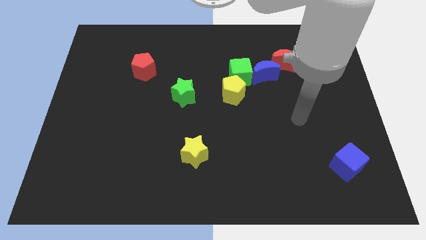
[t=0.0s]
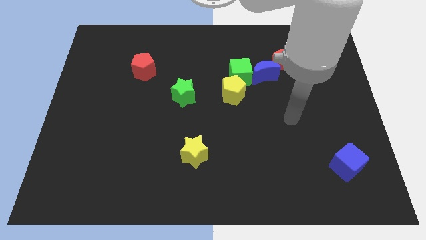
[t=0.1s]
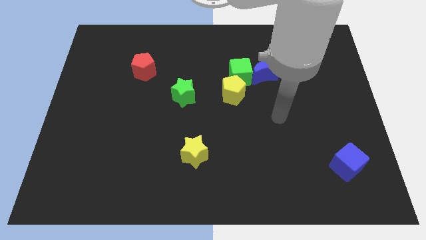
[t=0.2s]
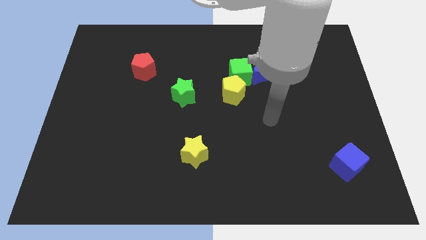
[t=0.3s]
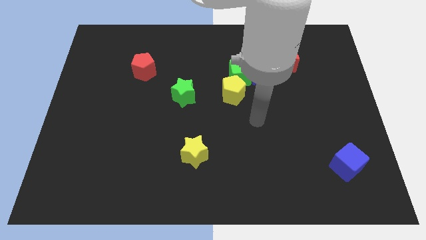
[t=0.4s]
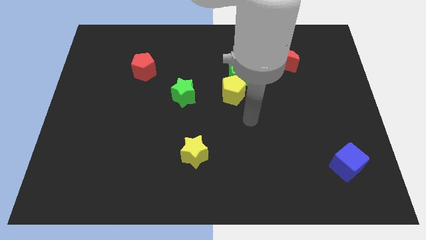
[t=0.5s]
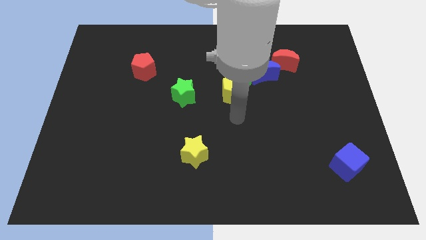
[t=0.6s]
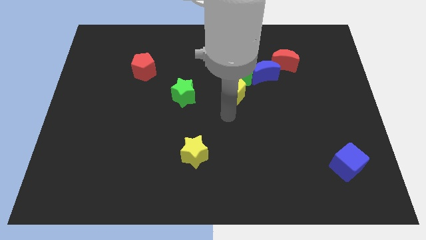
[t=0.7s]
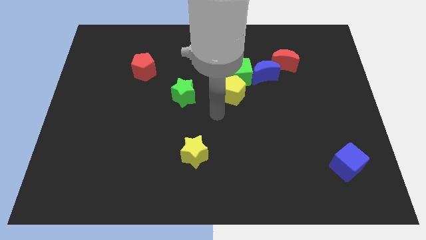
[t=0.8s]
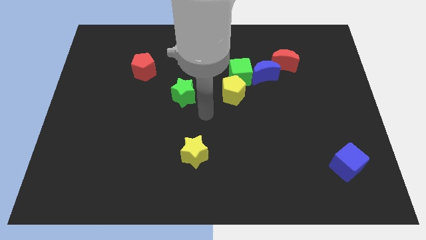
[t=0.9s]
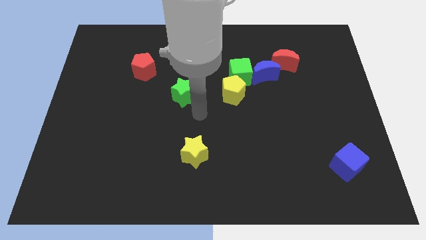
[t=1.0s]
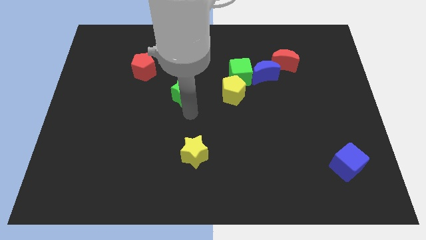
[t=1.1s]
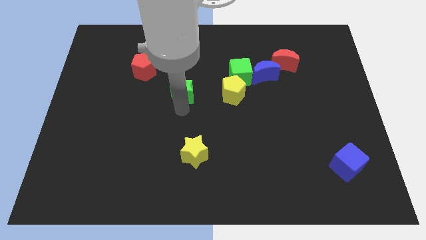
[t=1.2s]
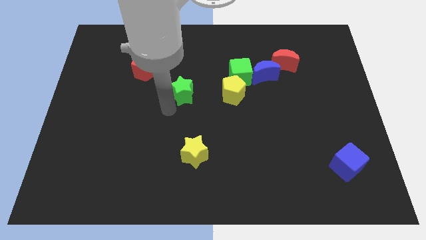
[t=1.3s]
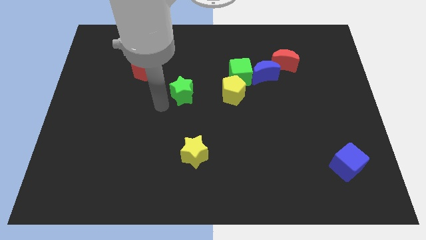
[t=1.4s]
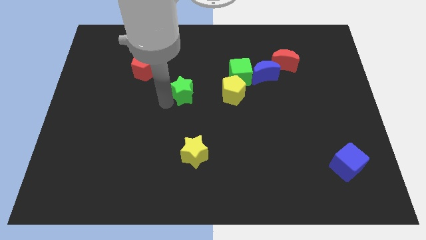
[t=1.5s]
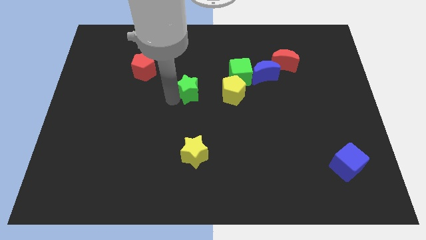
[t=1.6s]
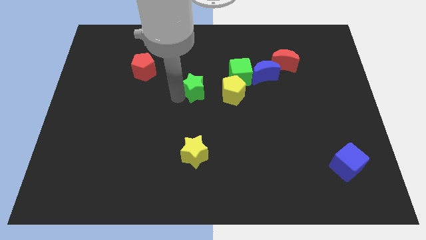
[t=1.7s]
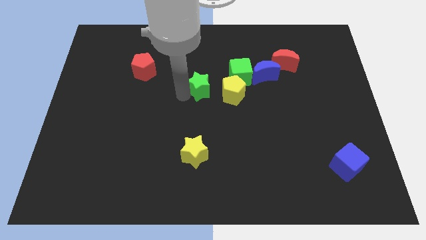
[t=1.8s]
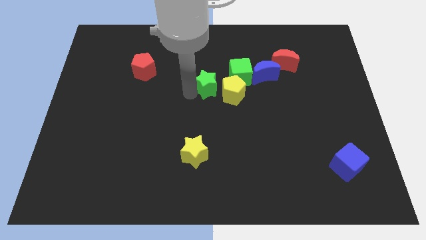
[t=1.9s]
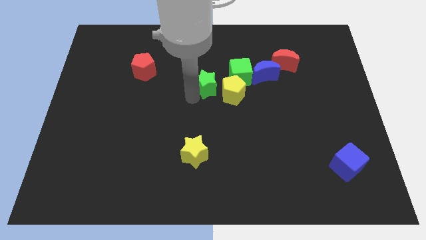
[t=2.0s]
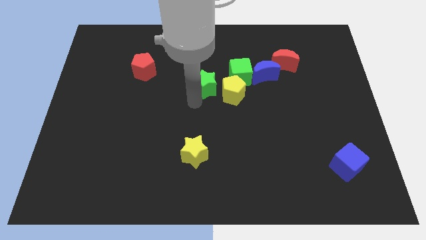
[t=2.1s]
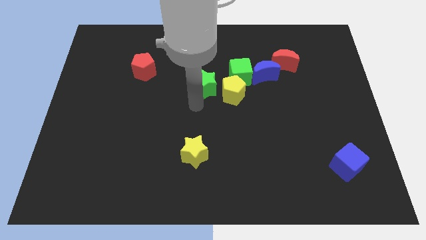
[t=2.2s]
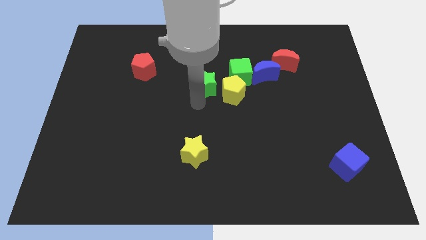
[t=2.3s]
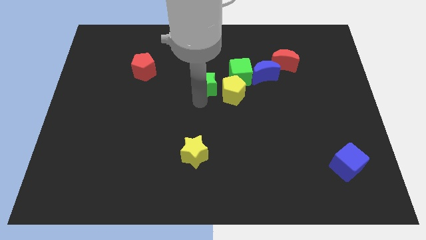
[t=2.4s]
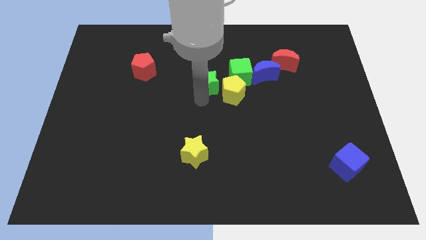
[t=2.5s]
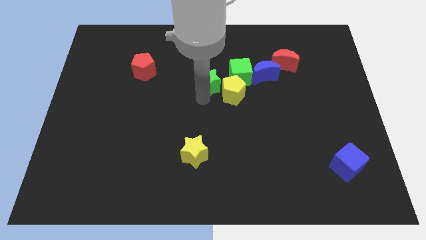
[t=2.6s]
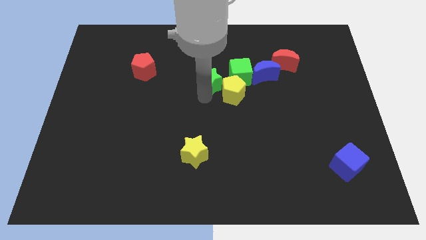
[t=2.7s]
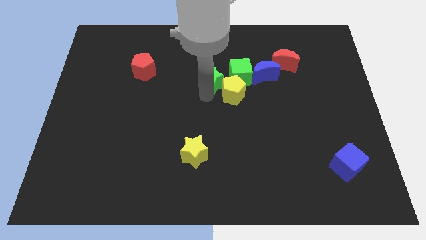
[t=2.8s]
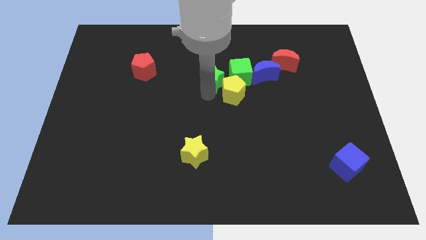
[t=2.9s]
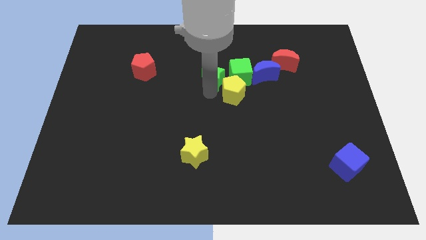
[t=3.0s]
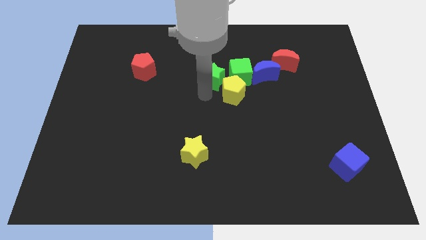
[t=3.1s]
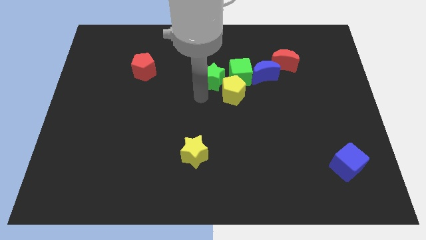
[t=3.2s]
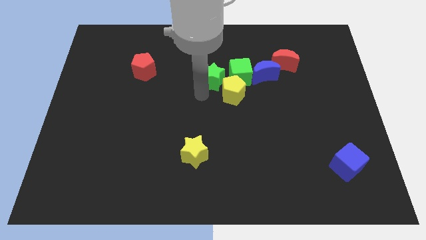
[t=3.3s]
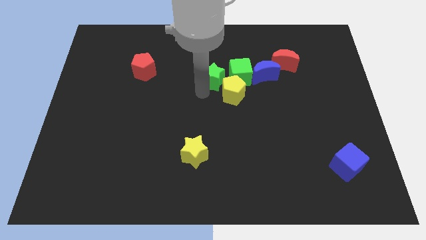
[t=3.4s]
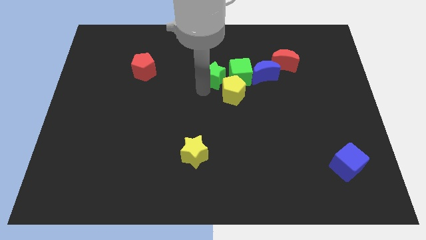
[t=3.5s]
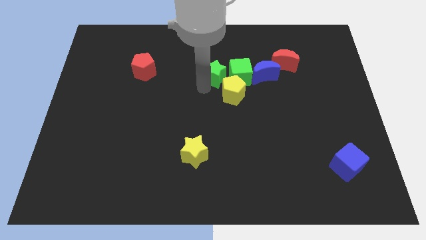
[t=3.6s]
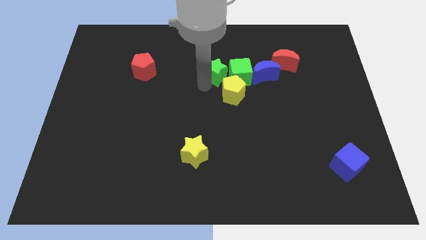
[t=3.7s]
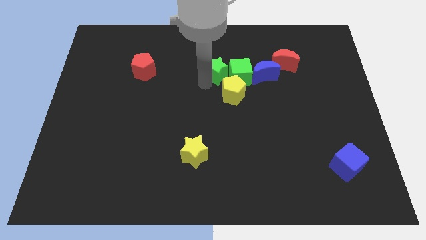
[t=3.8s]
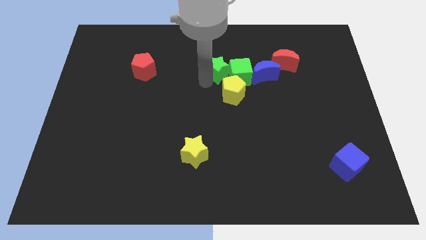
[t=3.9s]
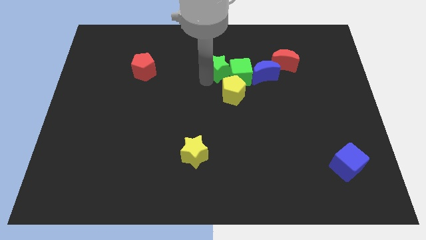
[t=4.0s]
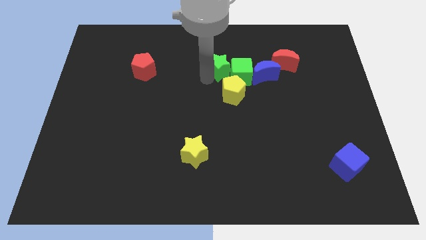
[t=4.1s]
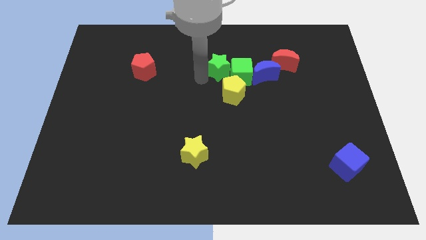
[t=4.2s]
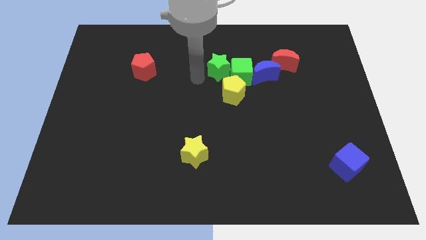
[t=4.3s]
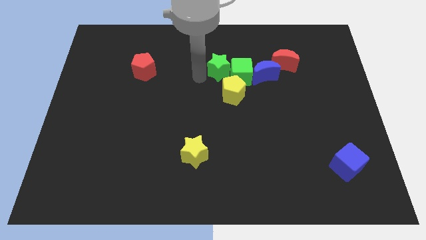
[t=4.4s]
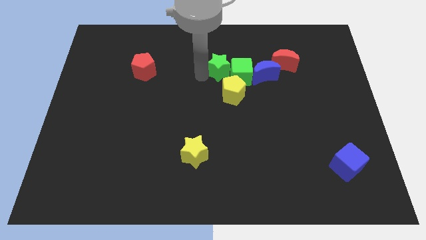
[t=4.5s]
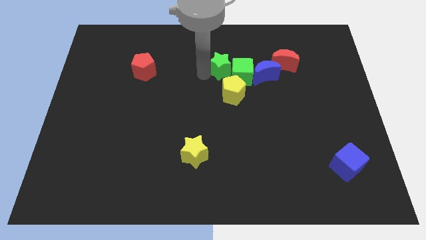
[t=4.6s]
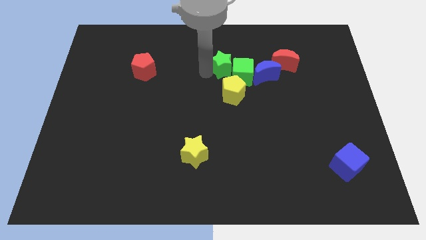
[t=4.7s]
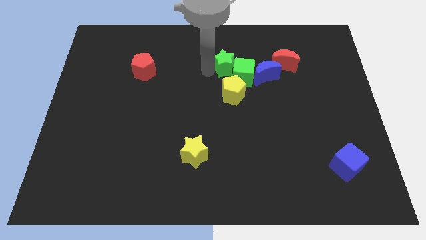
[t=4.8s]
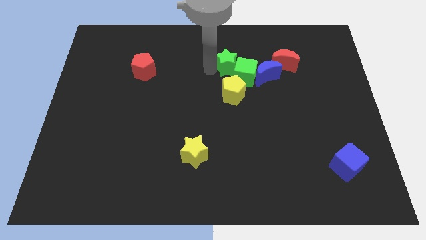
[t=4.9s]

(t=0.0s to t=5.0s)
slide the green star to the top left side of the blue moon

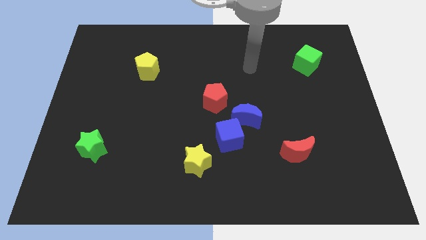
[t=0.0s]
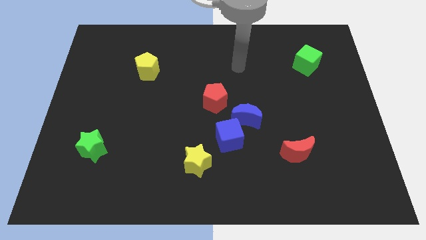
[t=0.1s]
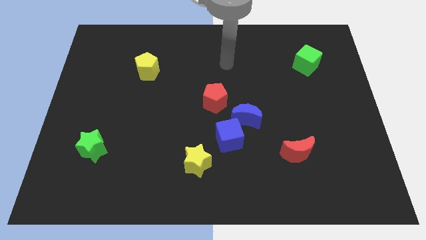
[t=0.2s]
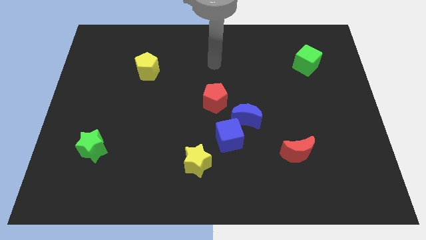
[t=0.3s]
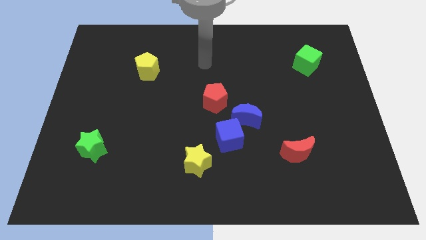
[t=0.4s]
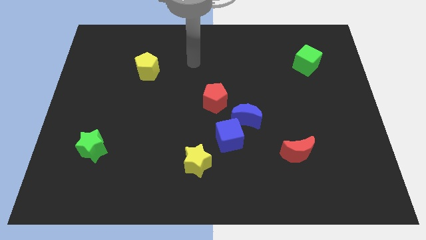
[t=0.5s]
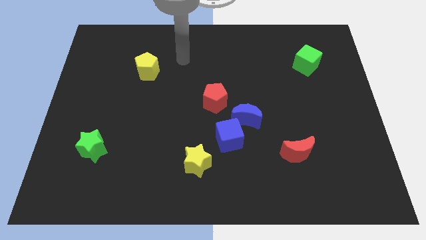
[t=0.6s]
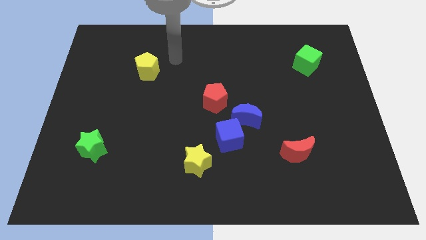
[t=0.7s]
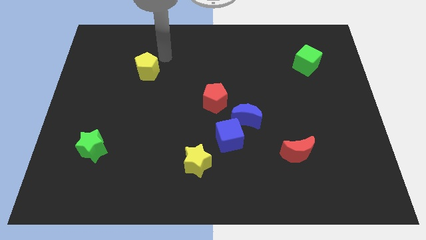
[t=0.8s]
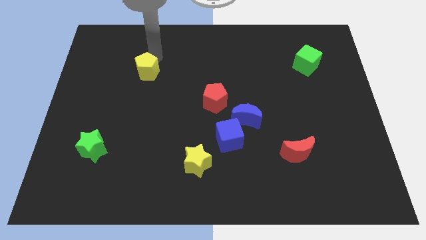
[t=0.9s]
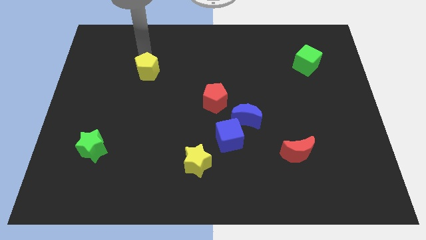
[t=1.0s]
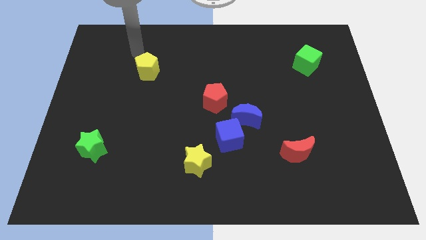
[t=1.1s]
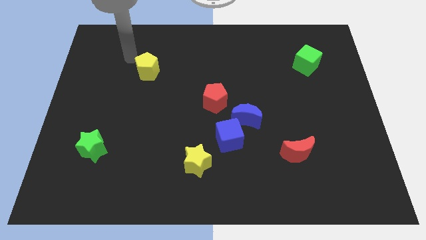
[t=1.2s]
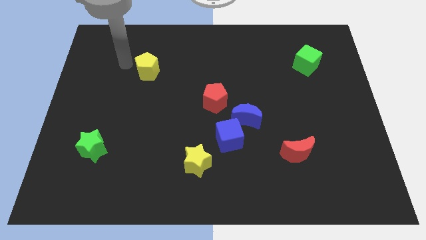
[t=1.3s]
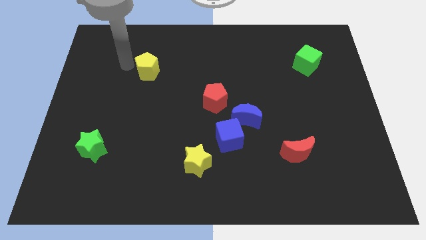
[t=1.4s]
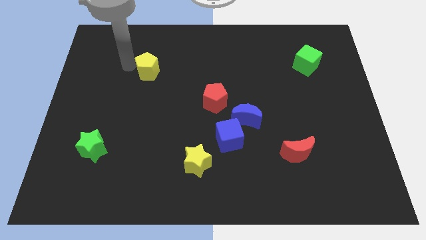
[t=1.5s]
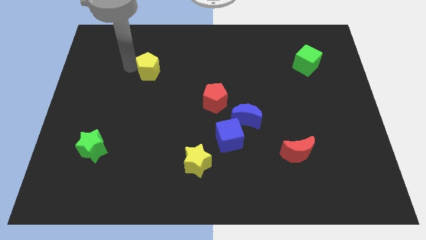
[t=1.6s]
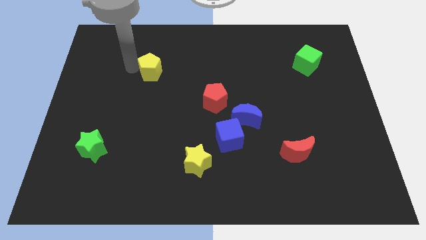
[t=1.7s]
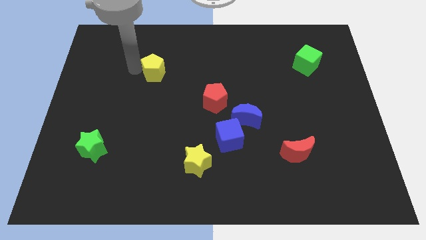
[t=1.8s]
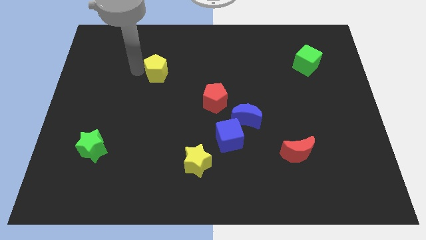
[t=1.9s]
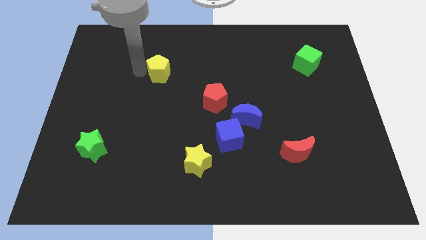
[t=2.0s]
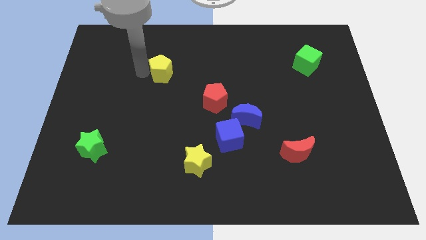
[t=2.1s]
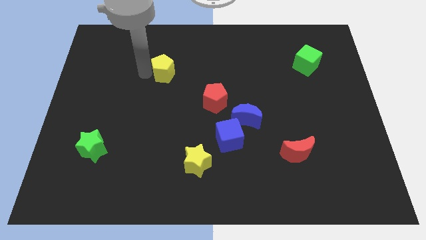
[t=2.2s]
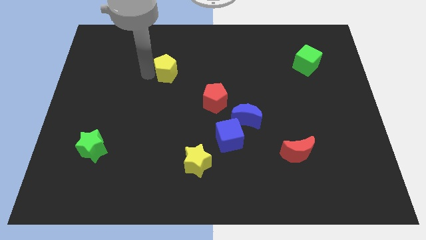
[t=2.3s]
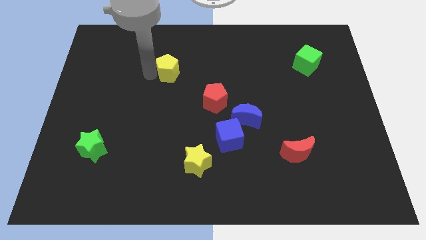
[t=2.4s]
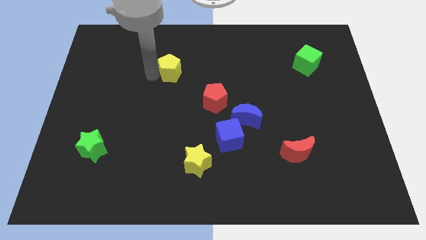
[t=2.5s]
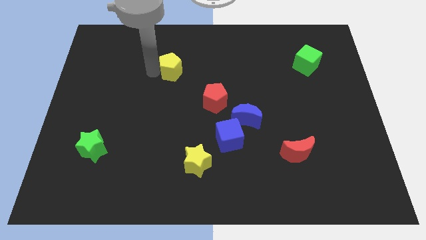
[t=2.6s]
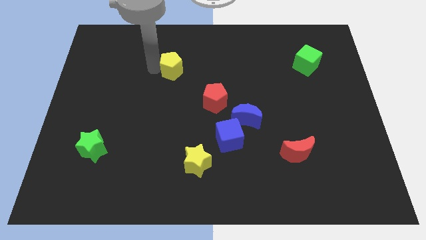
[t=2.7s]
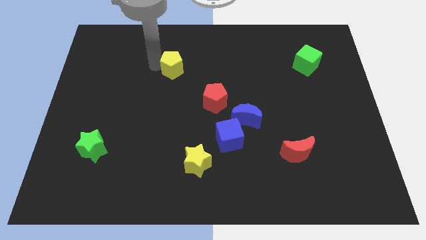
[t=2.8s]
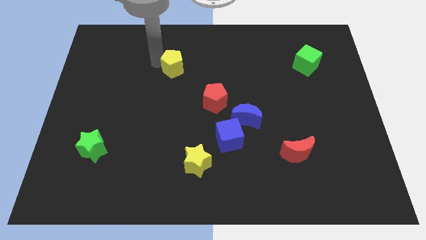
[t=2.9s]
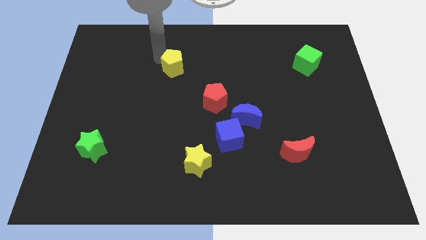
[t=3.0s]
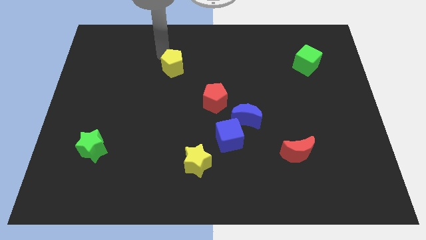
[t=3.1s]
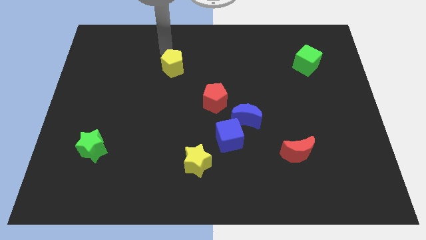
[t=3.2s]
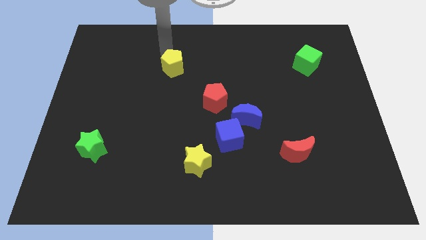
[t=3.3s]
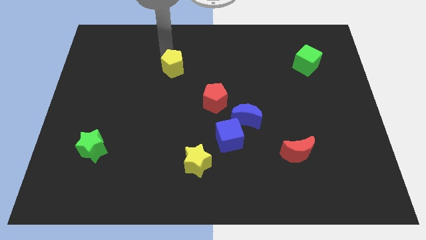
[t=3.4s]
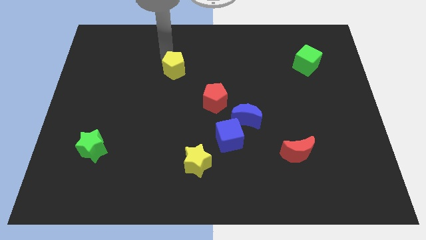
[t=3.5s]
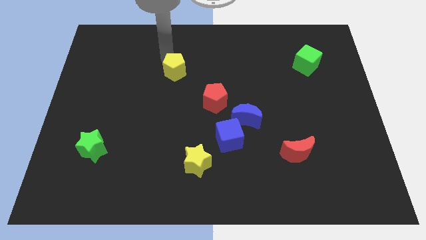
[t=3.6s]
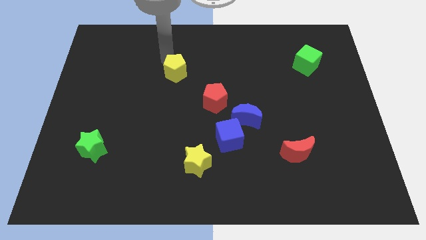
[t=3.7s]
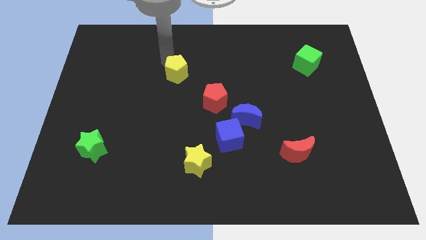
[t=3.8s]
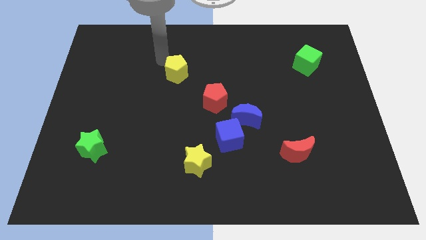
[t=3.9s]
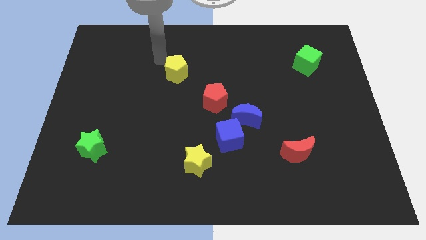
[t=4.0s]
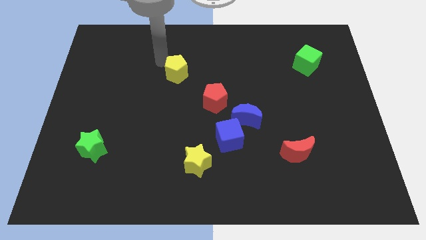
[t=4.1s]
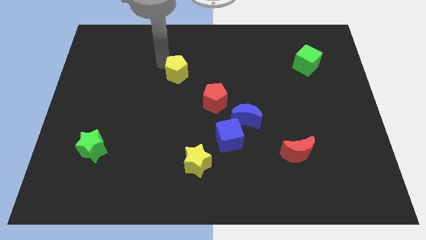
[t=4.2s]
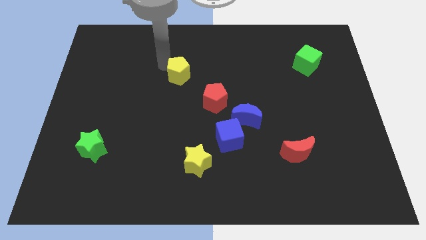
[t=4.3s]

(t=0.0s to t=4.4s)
put the yellow pentagon to the top left side of the red pentagon
